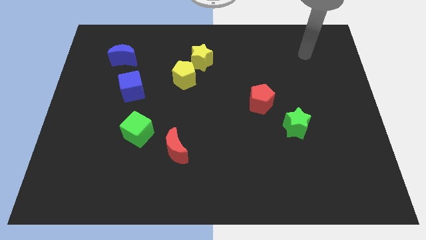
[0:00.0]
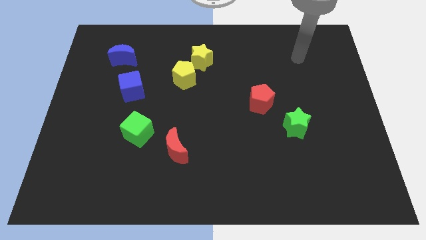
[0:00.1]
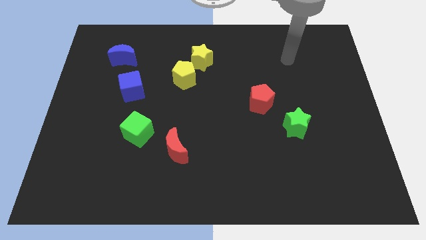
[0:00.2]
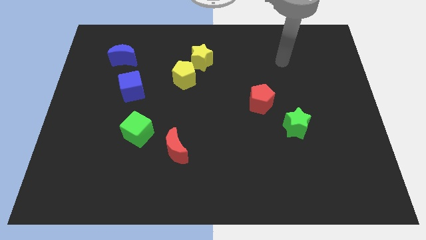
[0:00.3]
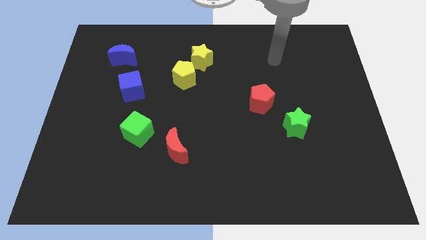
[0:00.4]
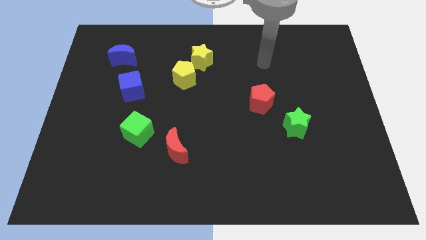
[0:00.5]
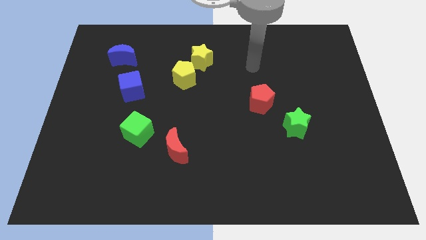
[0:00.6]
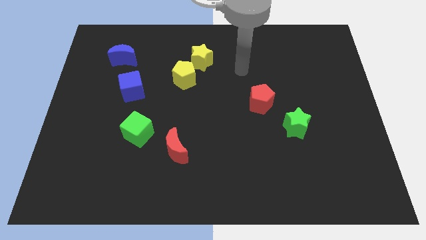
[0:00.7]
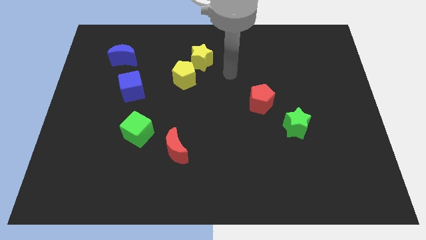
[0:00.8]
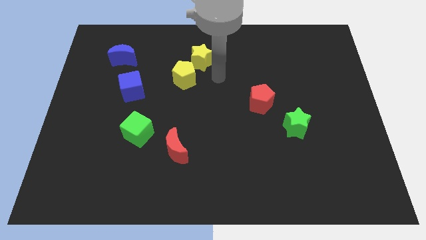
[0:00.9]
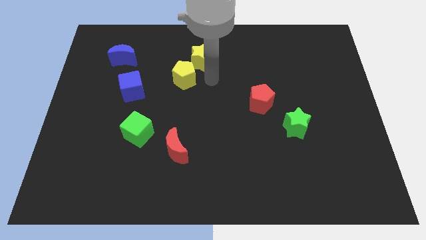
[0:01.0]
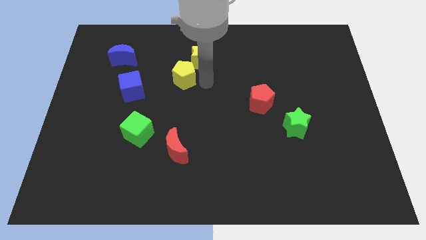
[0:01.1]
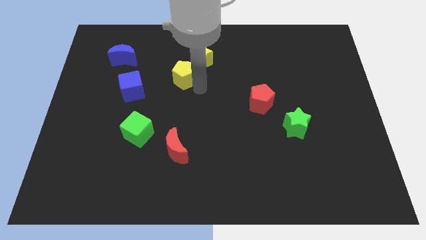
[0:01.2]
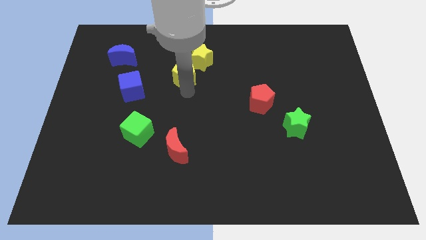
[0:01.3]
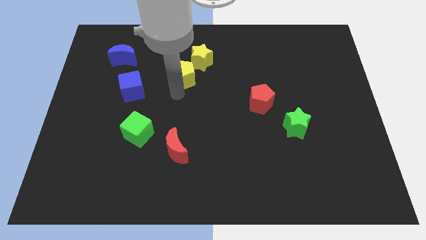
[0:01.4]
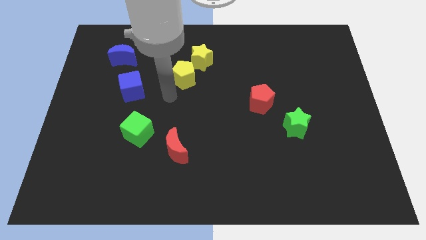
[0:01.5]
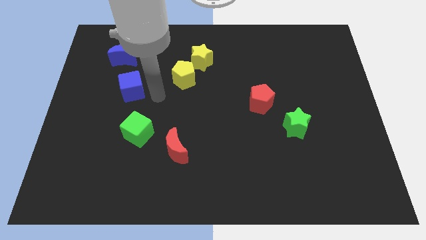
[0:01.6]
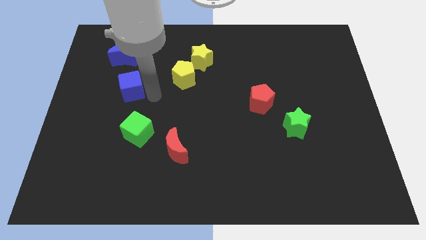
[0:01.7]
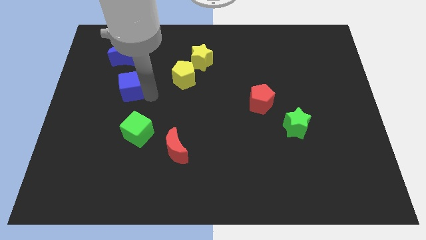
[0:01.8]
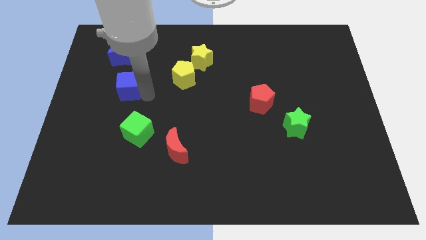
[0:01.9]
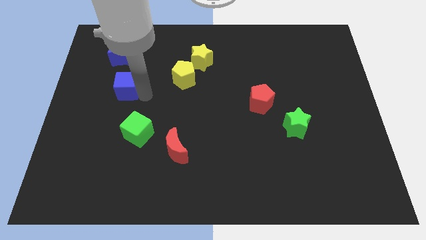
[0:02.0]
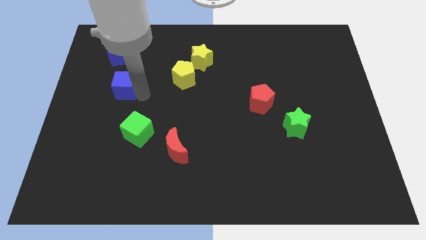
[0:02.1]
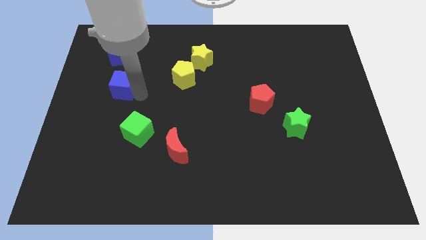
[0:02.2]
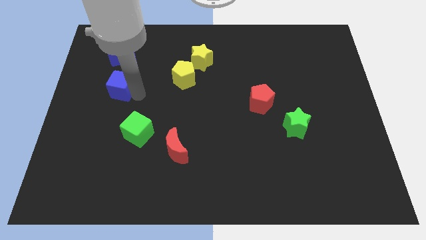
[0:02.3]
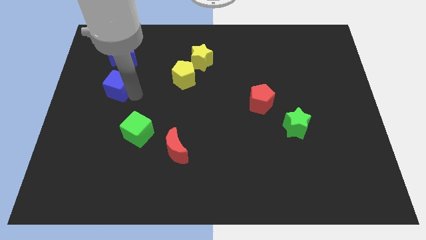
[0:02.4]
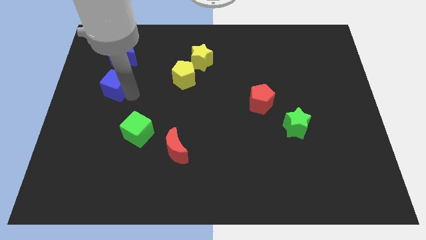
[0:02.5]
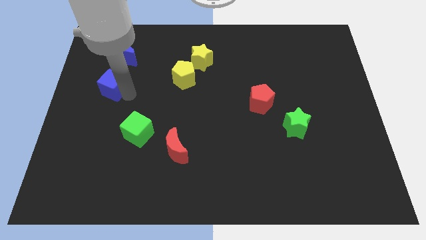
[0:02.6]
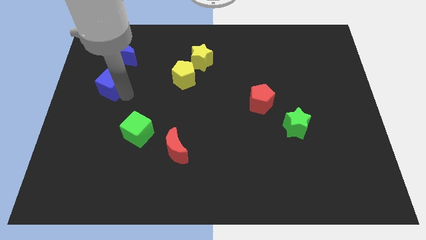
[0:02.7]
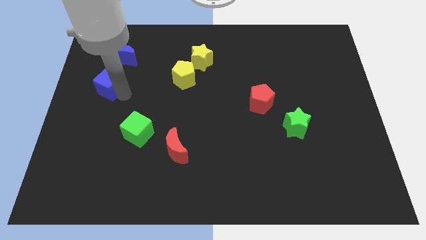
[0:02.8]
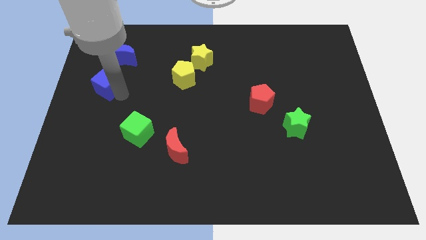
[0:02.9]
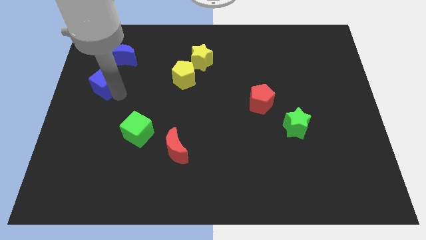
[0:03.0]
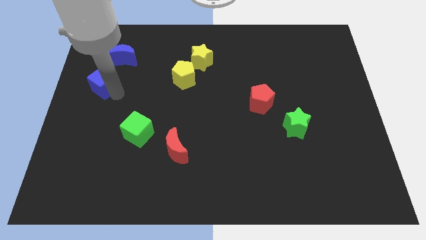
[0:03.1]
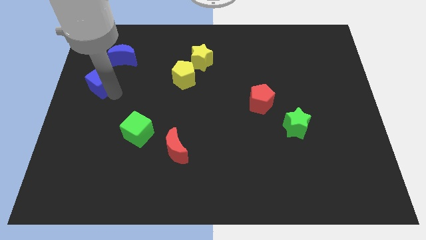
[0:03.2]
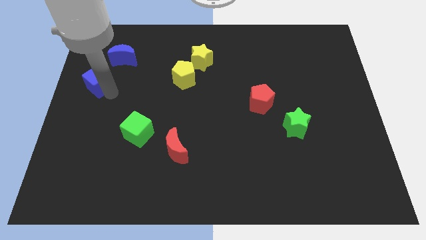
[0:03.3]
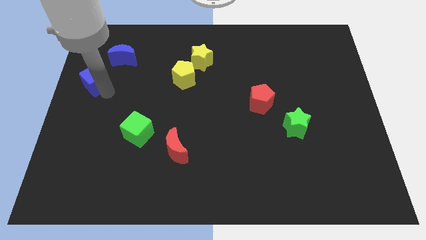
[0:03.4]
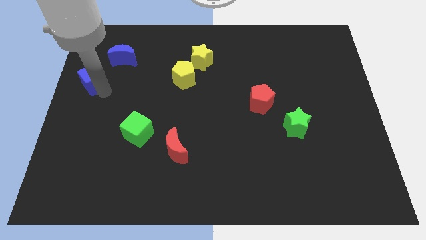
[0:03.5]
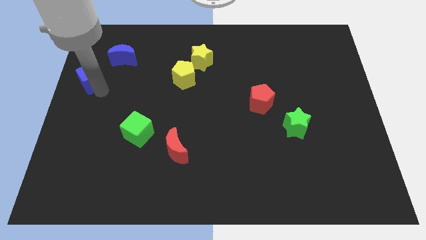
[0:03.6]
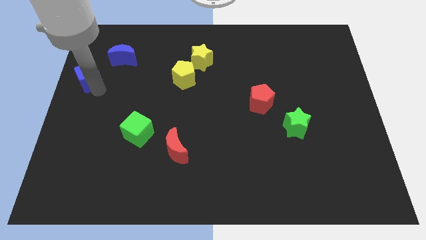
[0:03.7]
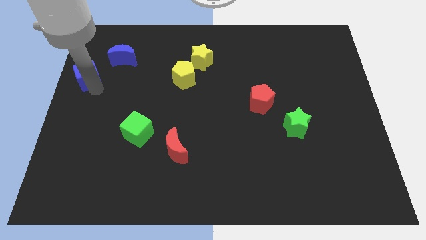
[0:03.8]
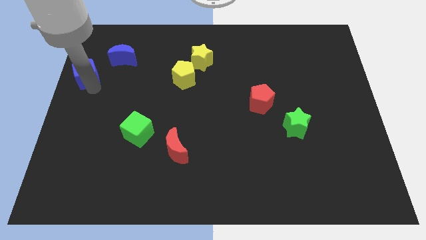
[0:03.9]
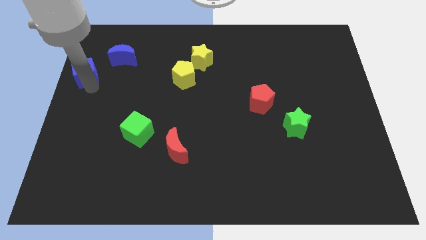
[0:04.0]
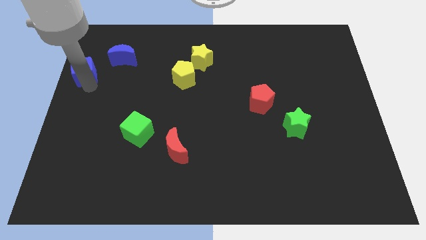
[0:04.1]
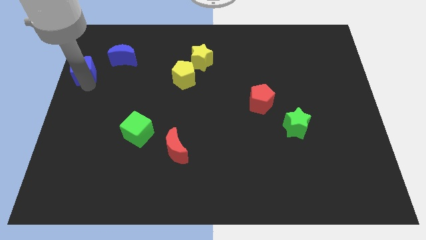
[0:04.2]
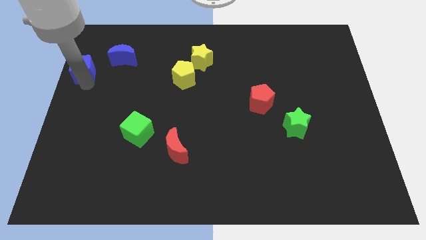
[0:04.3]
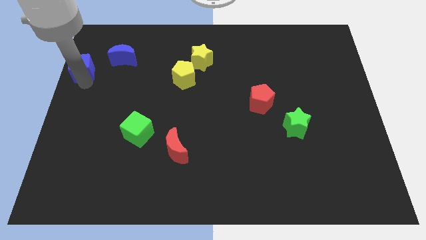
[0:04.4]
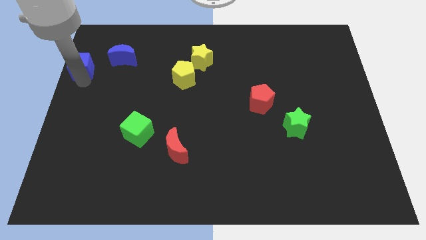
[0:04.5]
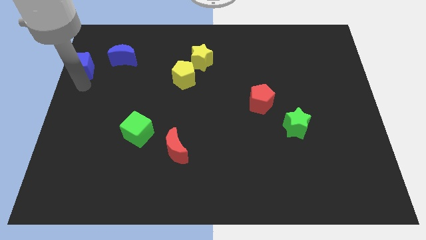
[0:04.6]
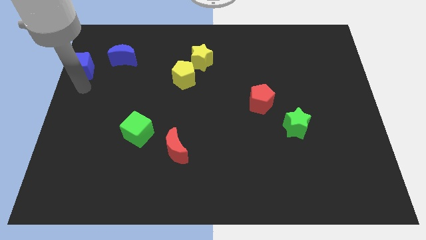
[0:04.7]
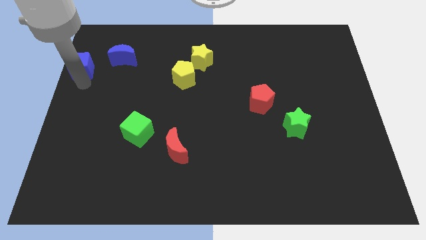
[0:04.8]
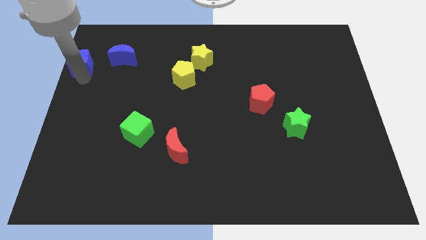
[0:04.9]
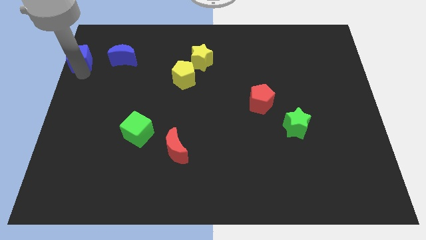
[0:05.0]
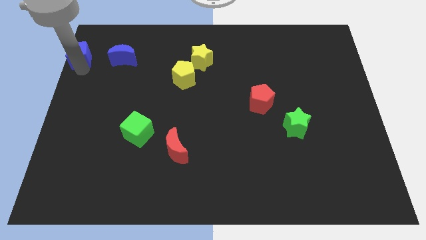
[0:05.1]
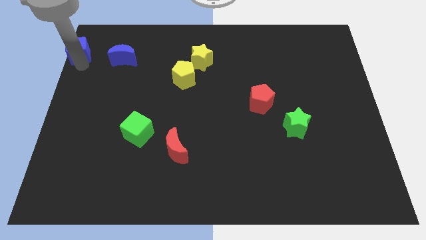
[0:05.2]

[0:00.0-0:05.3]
slide the blue cube to the top left

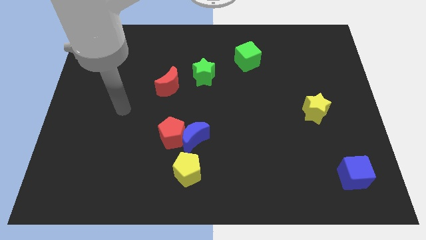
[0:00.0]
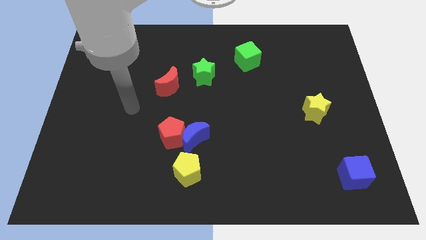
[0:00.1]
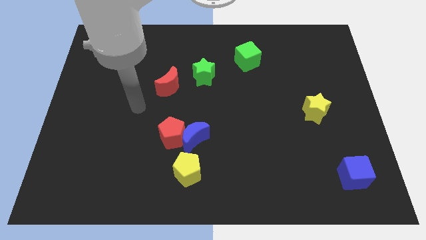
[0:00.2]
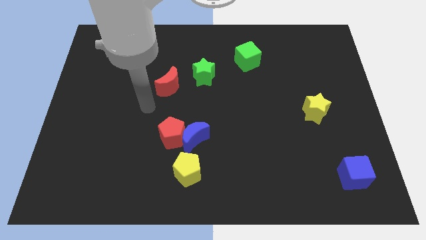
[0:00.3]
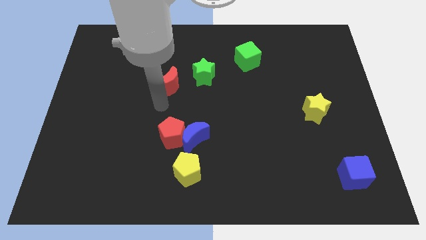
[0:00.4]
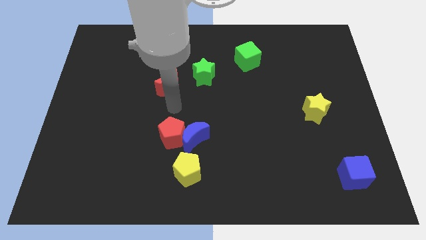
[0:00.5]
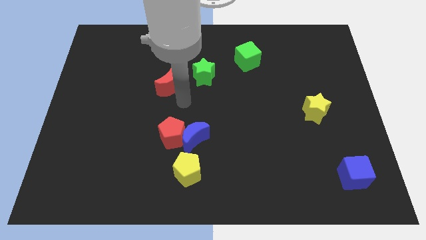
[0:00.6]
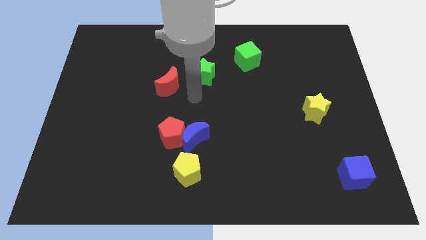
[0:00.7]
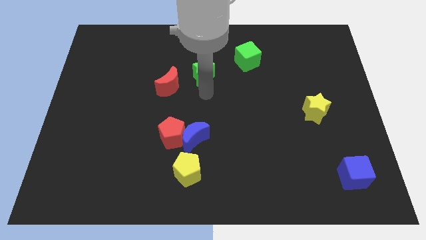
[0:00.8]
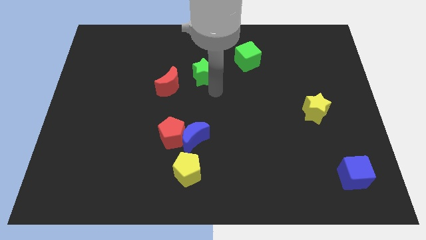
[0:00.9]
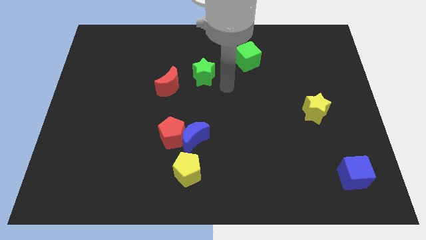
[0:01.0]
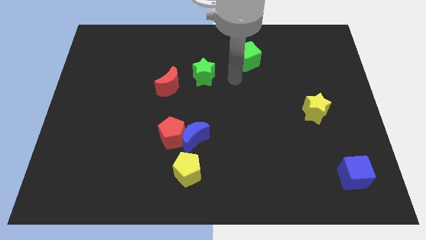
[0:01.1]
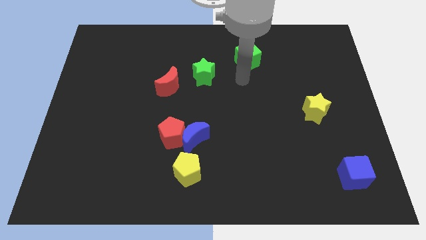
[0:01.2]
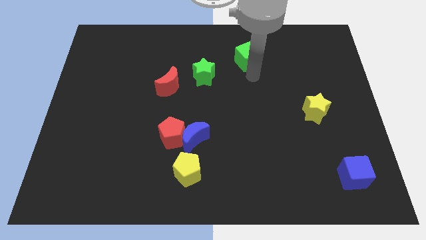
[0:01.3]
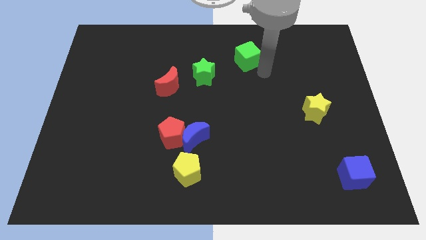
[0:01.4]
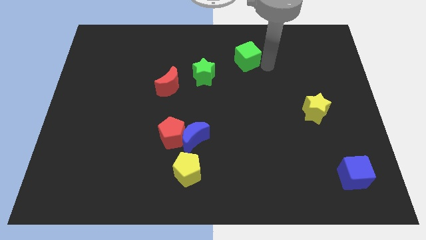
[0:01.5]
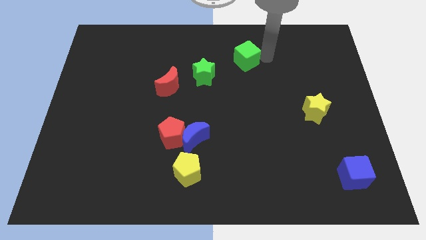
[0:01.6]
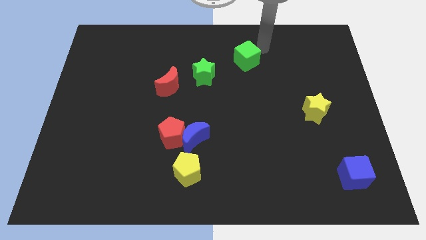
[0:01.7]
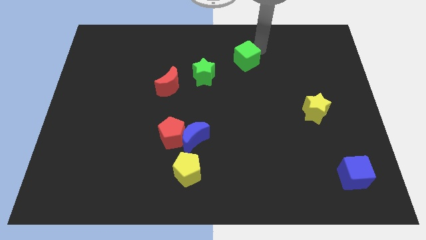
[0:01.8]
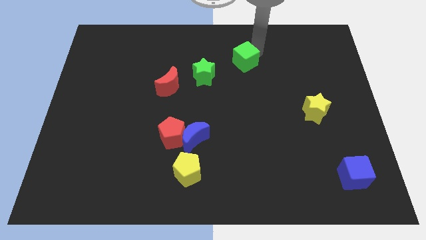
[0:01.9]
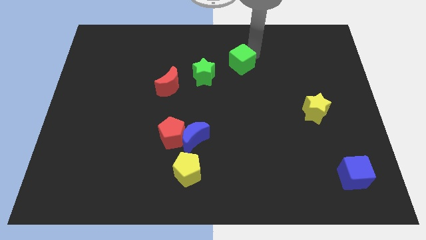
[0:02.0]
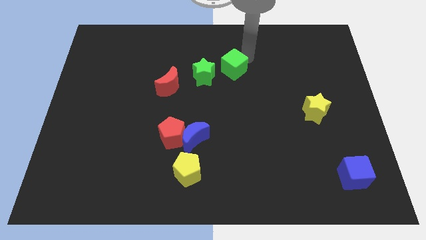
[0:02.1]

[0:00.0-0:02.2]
push the green cube to the center of the board
